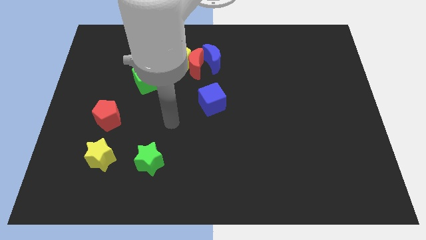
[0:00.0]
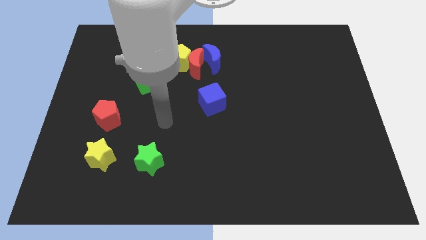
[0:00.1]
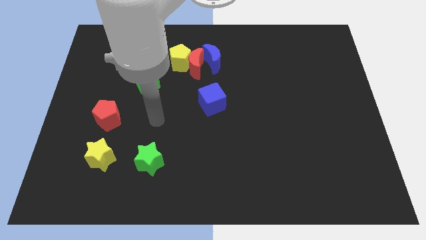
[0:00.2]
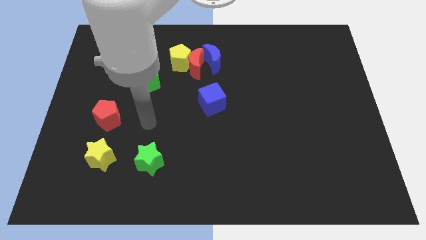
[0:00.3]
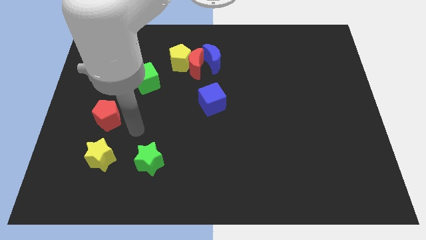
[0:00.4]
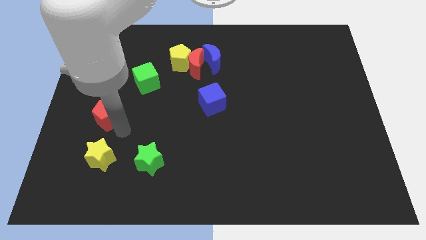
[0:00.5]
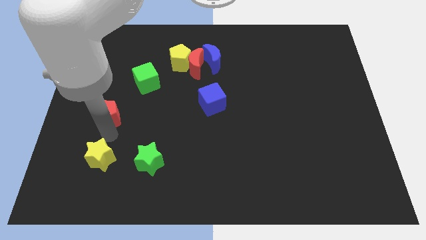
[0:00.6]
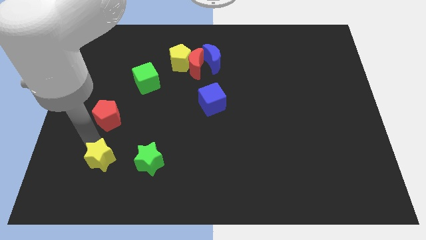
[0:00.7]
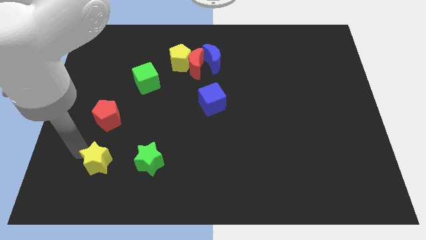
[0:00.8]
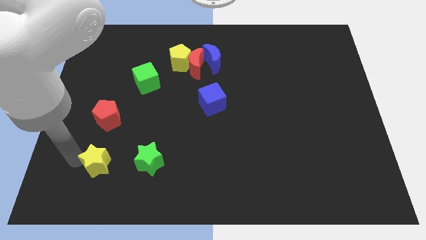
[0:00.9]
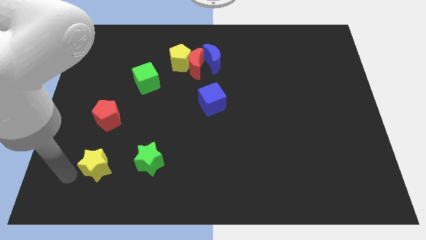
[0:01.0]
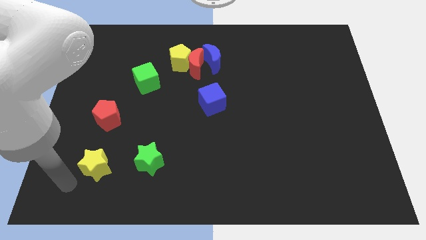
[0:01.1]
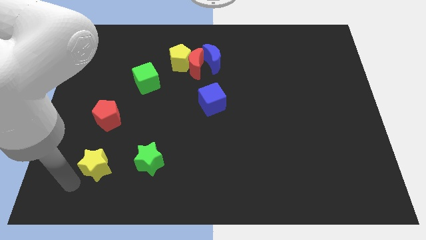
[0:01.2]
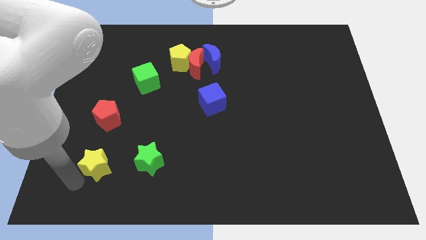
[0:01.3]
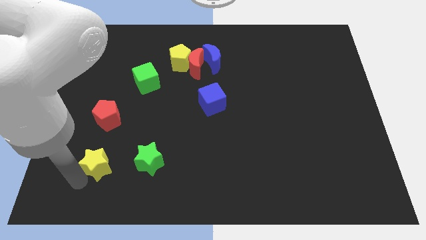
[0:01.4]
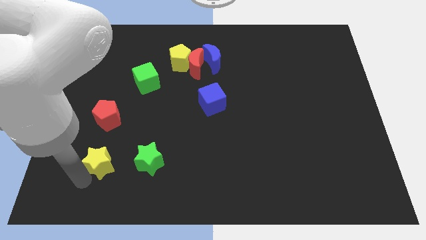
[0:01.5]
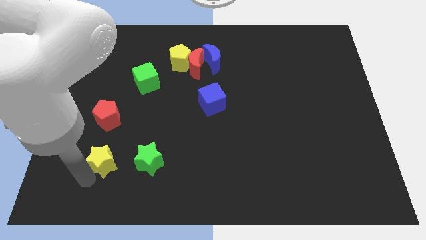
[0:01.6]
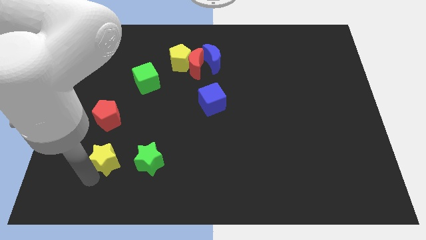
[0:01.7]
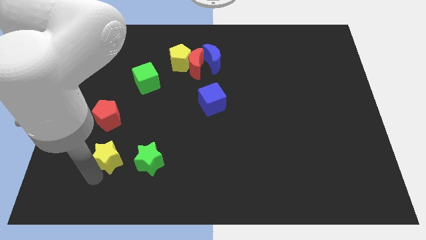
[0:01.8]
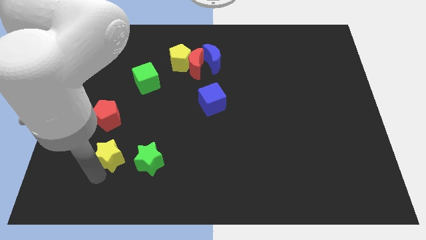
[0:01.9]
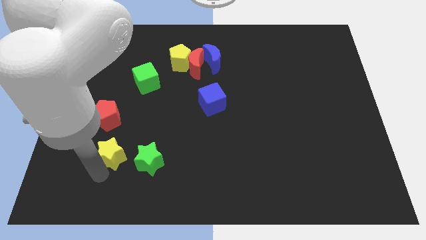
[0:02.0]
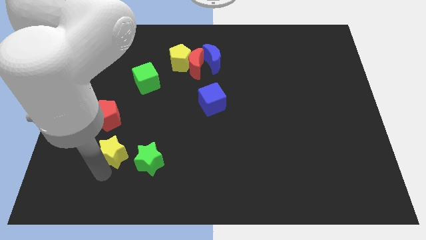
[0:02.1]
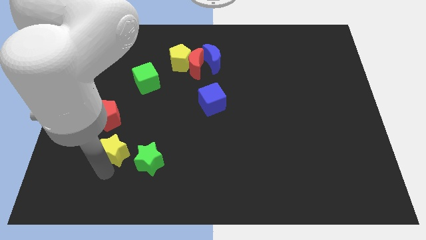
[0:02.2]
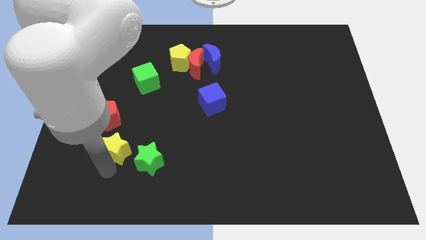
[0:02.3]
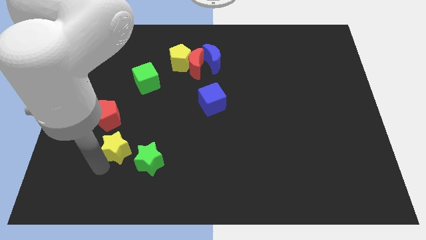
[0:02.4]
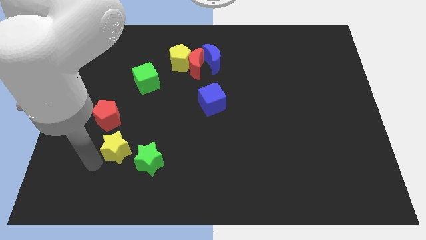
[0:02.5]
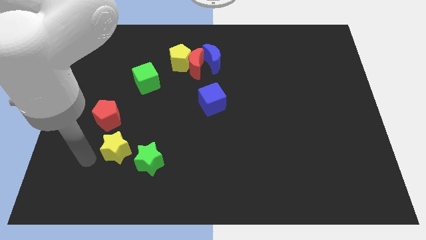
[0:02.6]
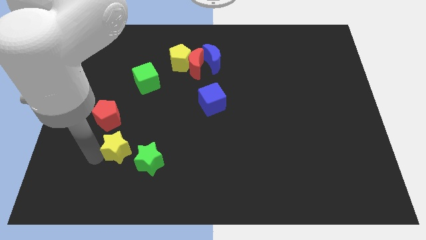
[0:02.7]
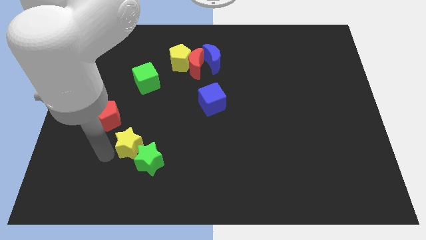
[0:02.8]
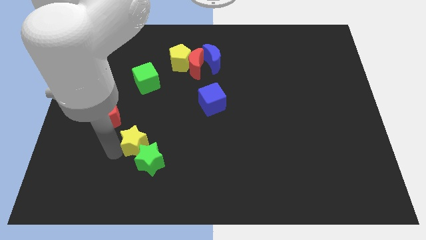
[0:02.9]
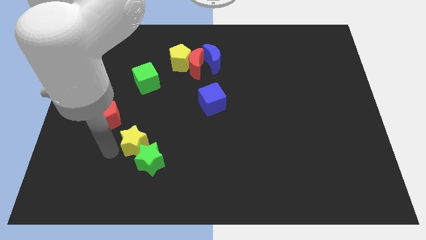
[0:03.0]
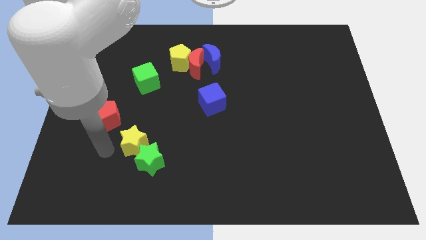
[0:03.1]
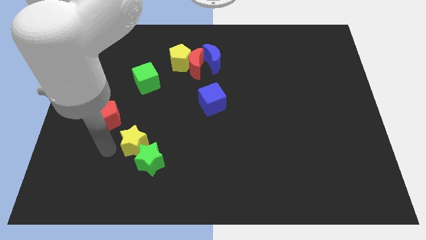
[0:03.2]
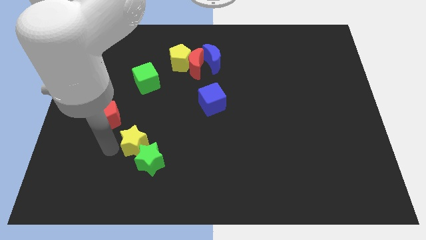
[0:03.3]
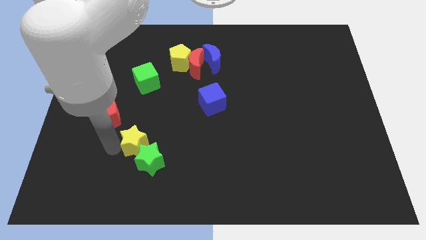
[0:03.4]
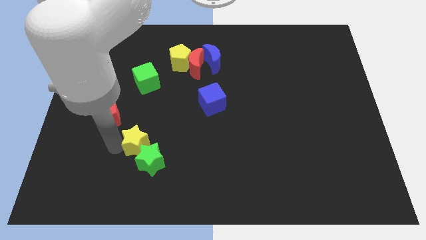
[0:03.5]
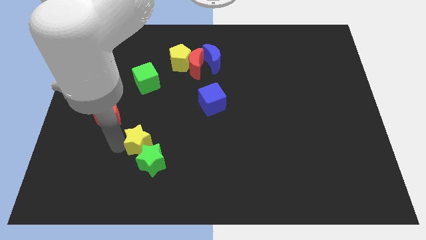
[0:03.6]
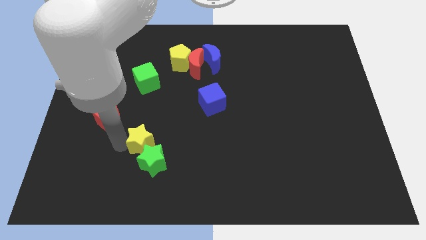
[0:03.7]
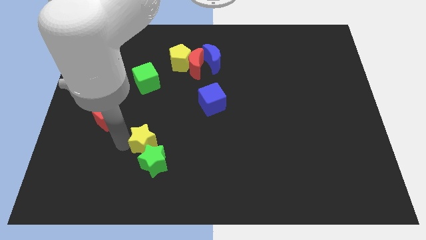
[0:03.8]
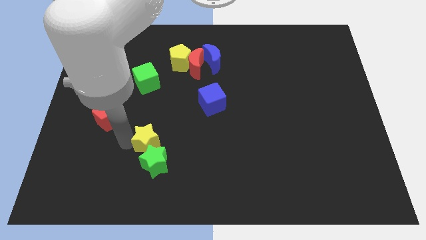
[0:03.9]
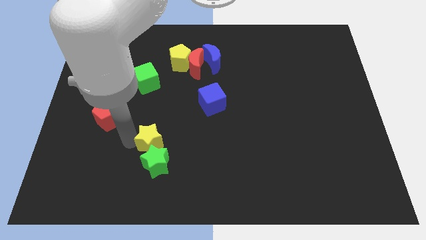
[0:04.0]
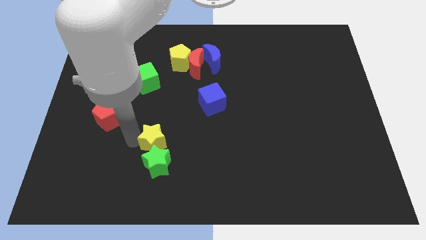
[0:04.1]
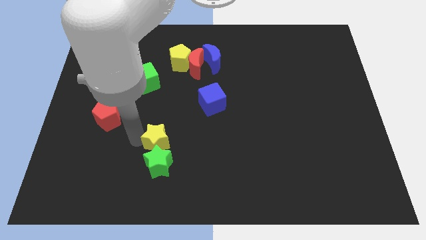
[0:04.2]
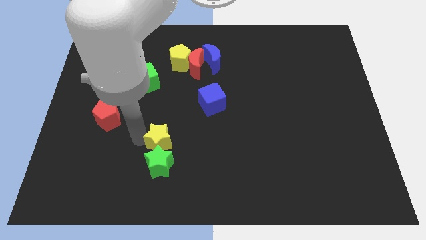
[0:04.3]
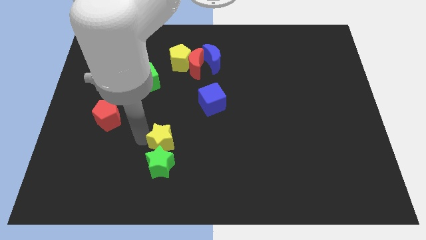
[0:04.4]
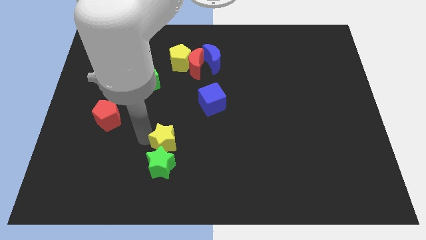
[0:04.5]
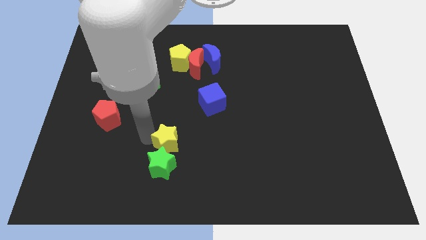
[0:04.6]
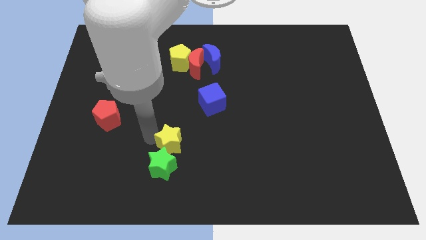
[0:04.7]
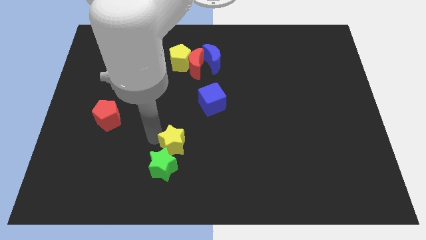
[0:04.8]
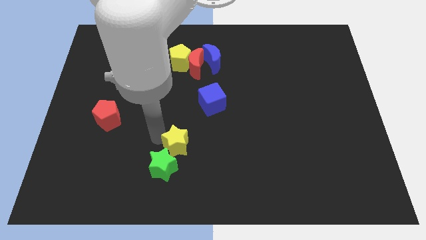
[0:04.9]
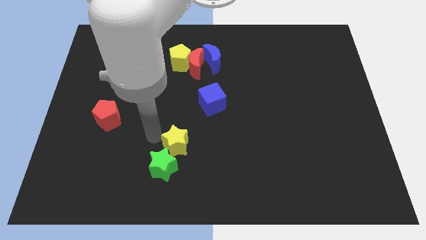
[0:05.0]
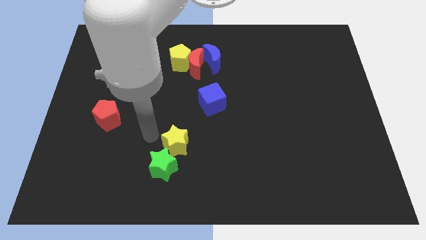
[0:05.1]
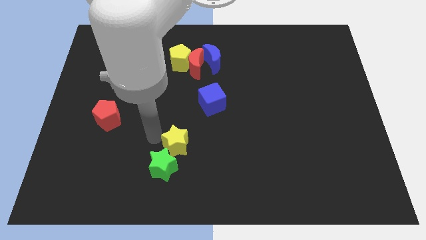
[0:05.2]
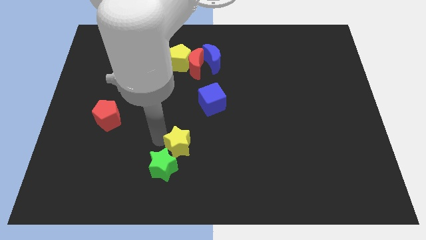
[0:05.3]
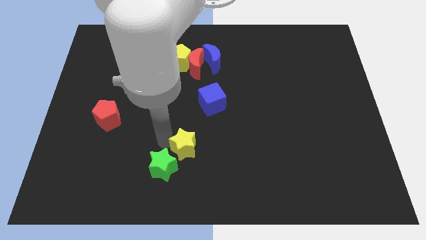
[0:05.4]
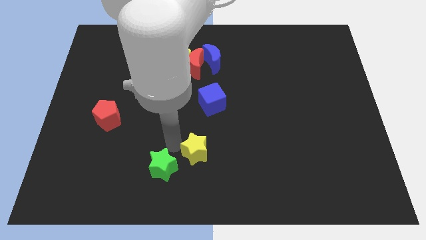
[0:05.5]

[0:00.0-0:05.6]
push the yellow star right

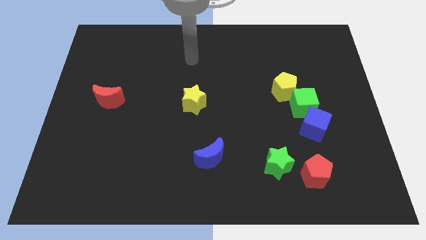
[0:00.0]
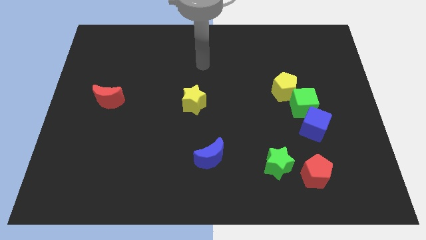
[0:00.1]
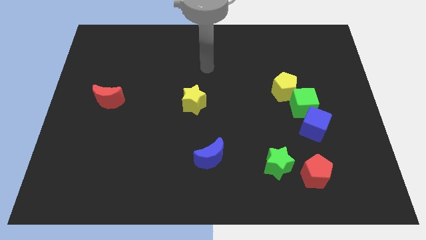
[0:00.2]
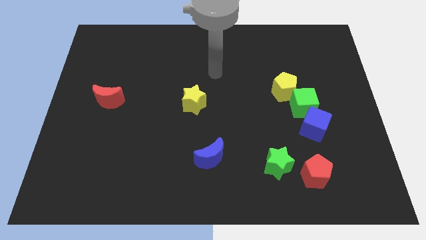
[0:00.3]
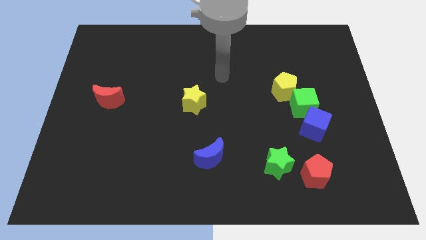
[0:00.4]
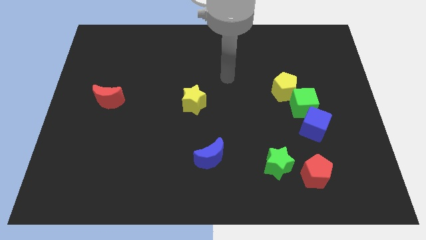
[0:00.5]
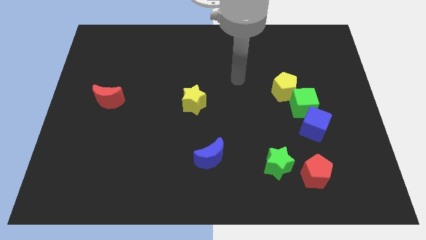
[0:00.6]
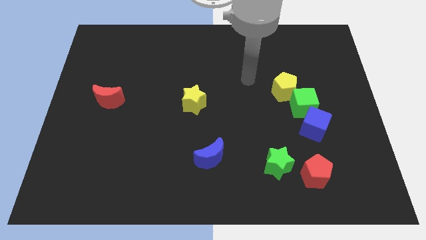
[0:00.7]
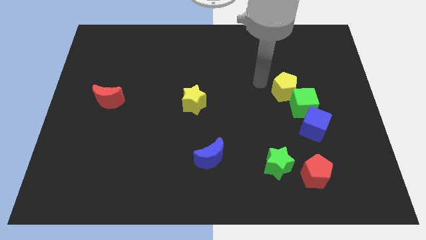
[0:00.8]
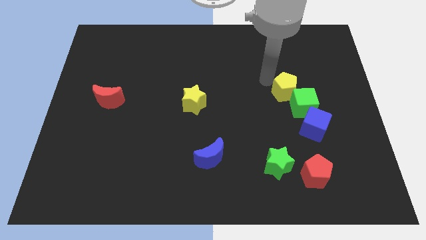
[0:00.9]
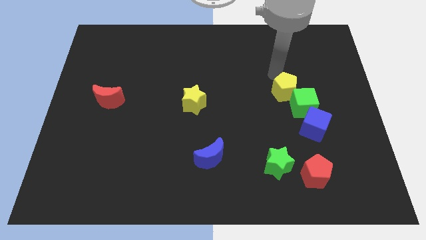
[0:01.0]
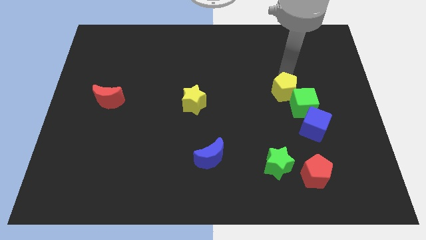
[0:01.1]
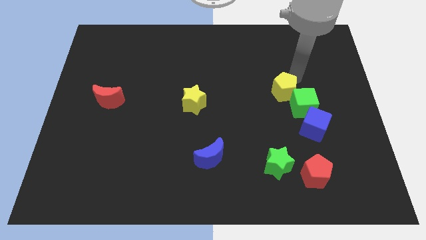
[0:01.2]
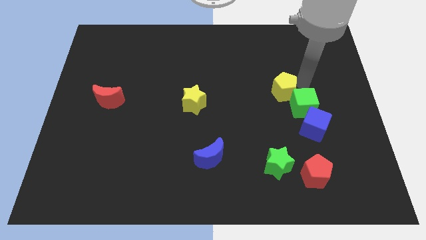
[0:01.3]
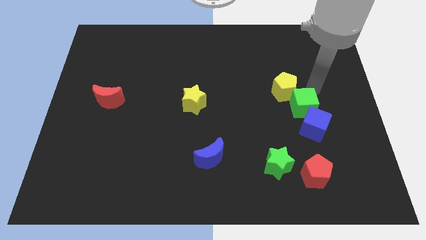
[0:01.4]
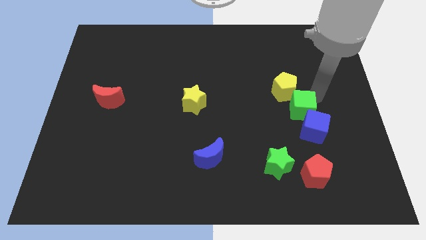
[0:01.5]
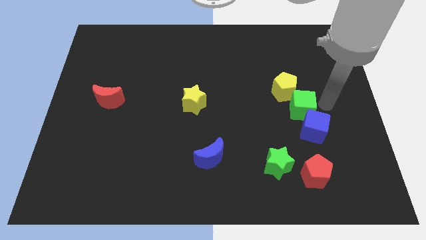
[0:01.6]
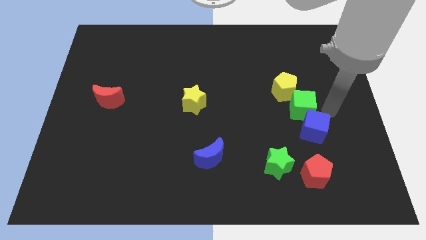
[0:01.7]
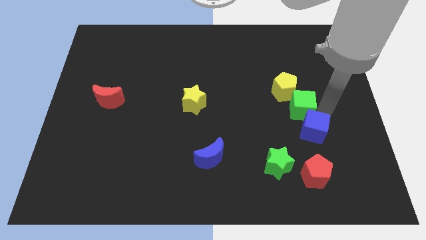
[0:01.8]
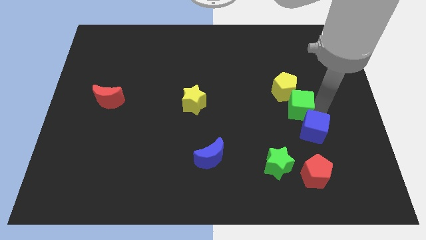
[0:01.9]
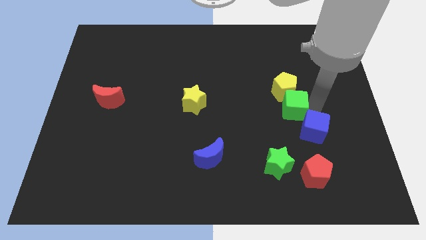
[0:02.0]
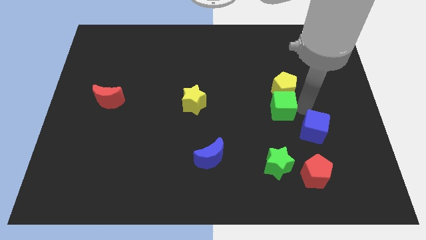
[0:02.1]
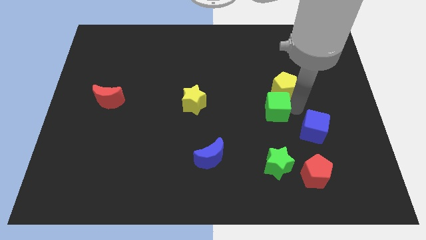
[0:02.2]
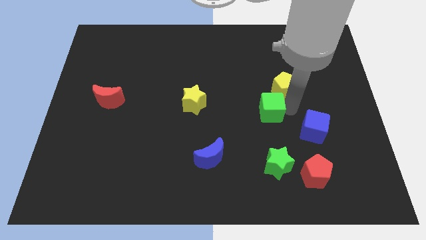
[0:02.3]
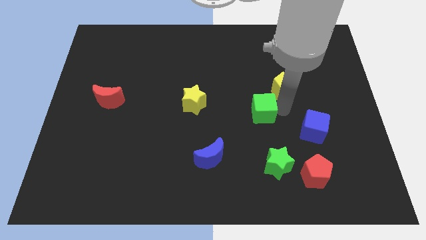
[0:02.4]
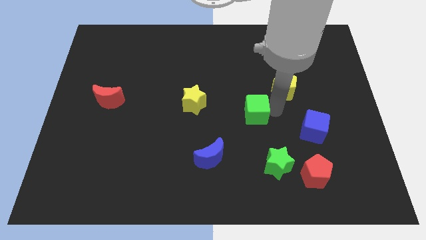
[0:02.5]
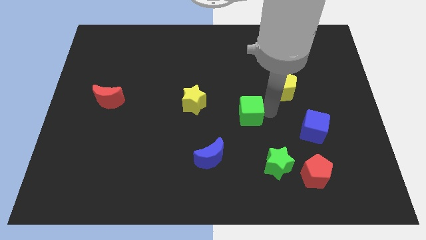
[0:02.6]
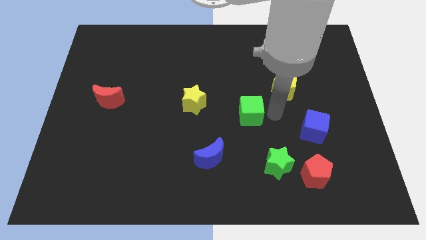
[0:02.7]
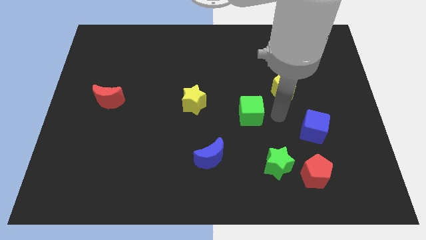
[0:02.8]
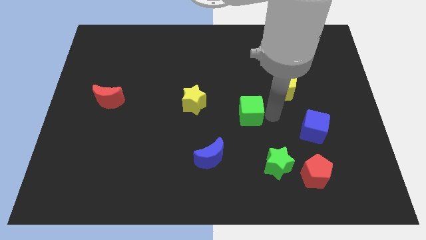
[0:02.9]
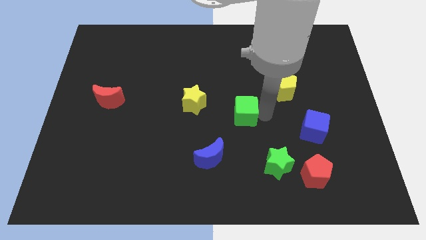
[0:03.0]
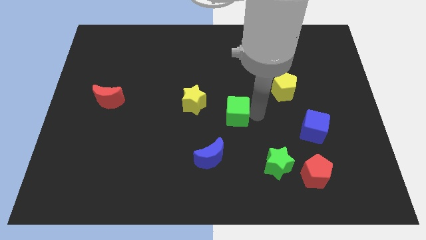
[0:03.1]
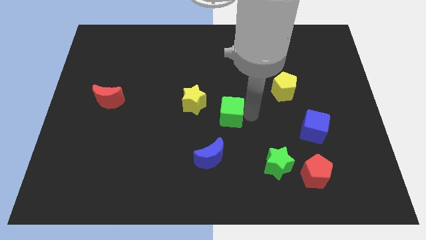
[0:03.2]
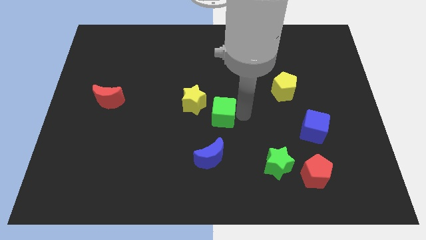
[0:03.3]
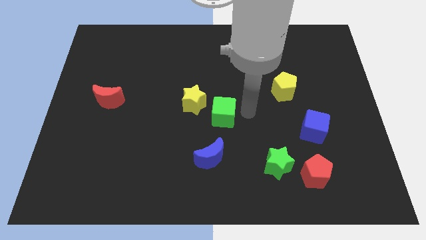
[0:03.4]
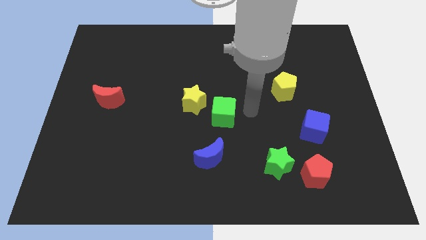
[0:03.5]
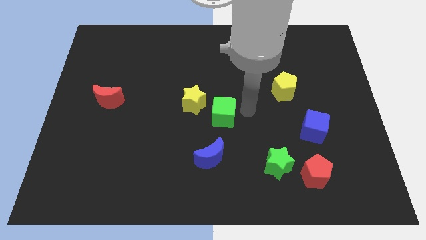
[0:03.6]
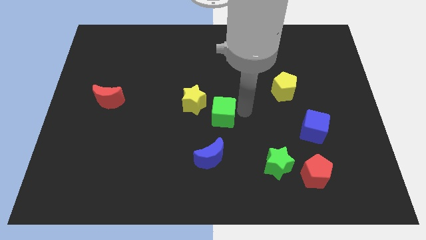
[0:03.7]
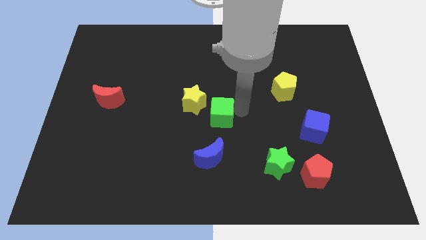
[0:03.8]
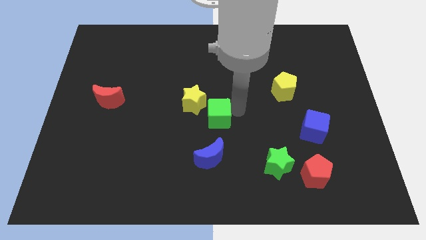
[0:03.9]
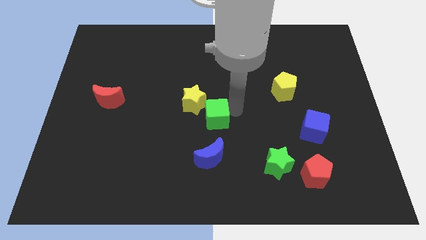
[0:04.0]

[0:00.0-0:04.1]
slide the green cube to the left
